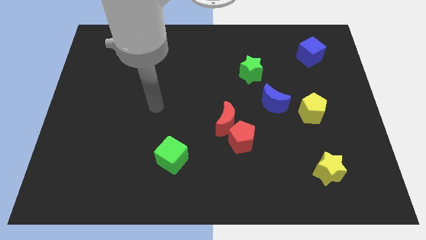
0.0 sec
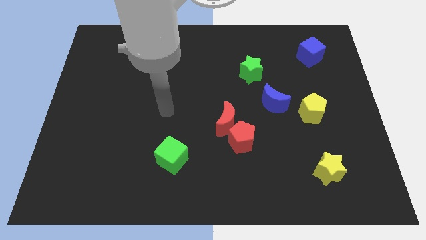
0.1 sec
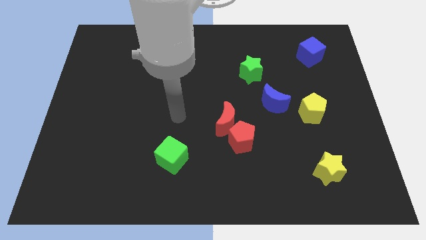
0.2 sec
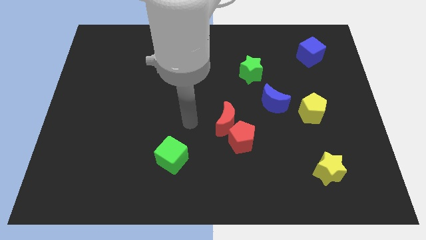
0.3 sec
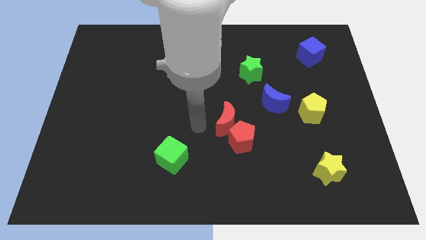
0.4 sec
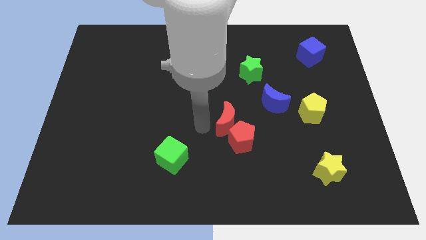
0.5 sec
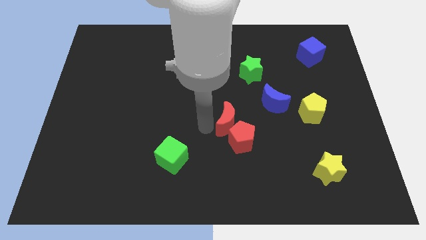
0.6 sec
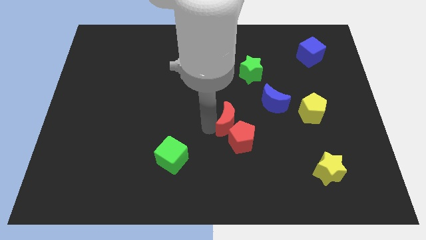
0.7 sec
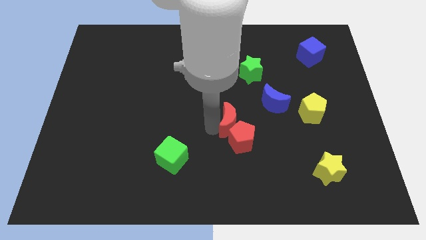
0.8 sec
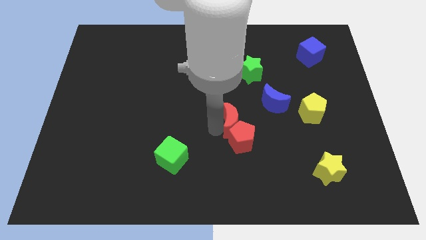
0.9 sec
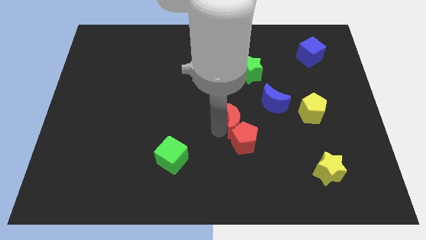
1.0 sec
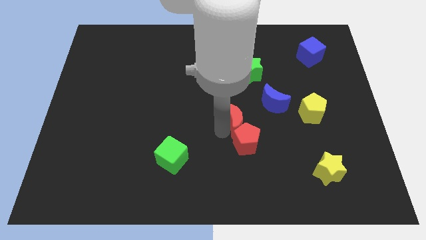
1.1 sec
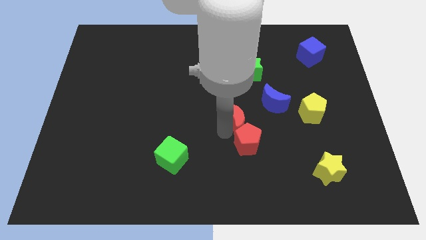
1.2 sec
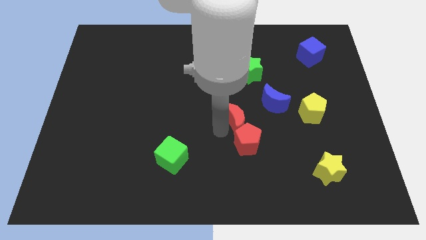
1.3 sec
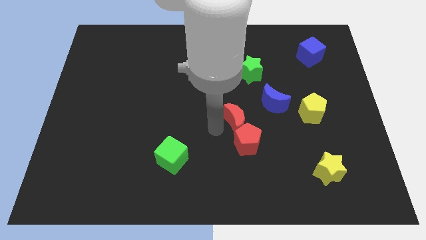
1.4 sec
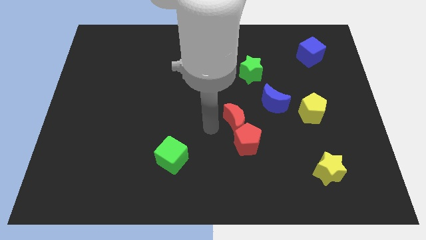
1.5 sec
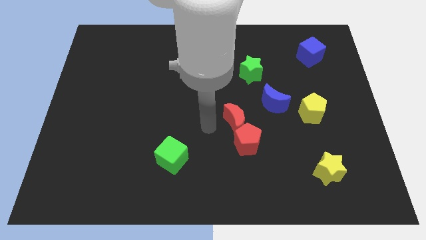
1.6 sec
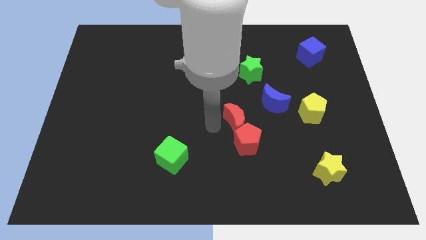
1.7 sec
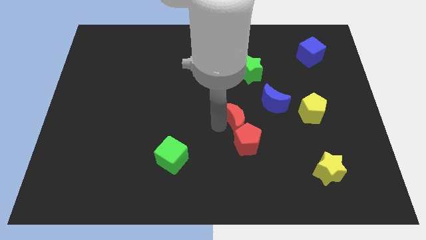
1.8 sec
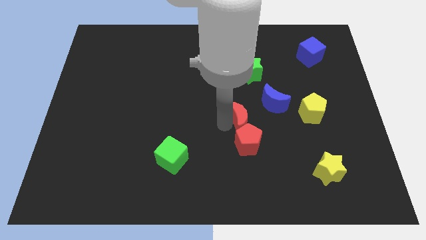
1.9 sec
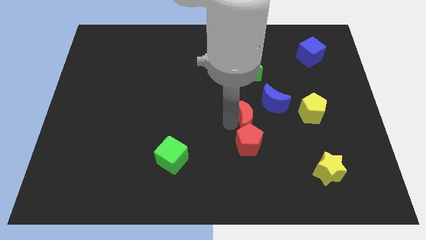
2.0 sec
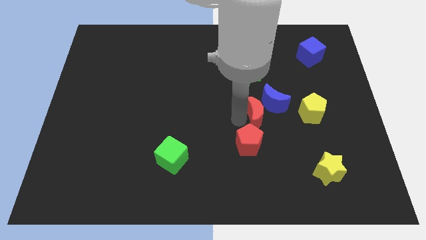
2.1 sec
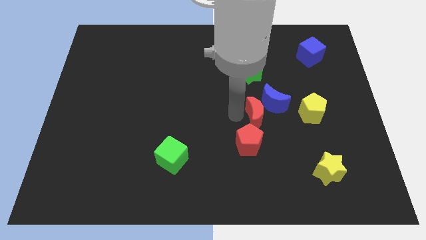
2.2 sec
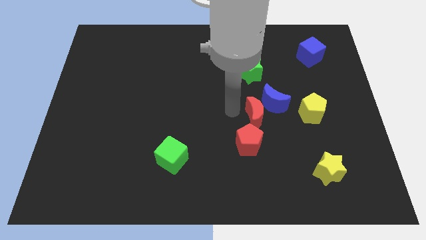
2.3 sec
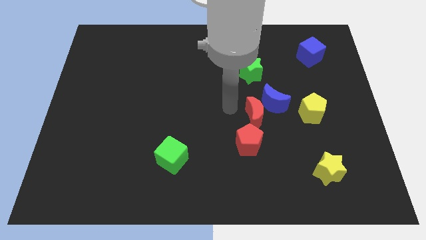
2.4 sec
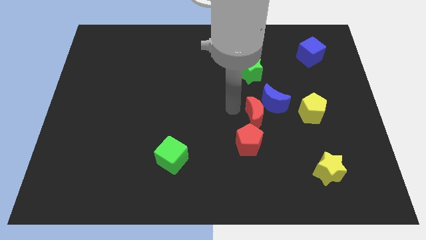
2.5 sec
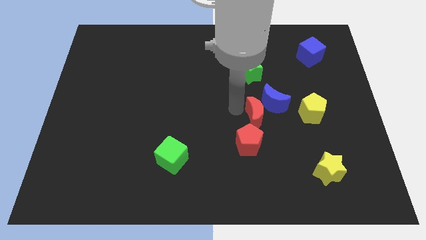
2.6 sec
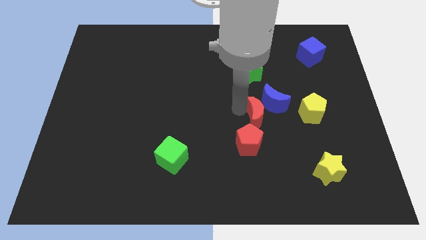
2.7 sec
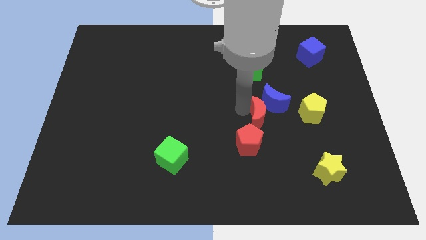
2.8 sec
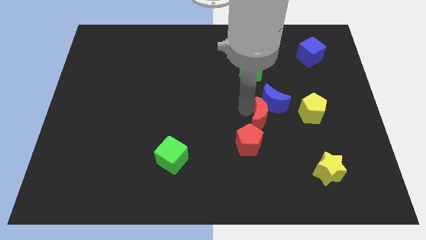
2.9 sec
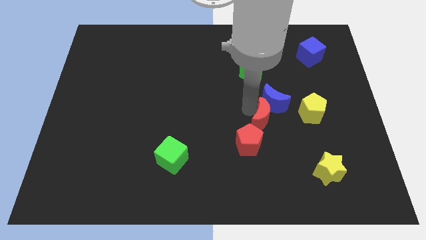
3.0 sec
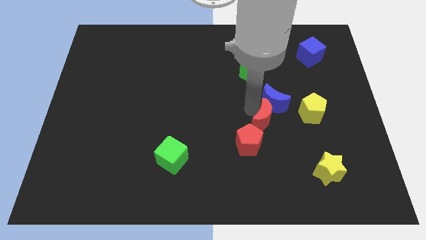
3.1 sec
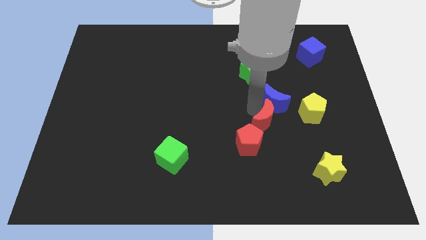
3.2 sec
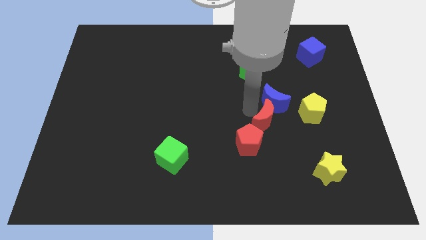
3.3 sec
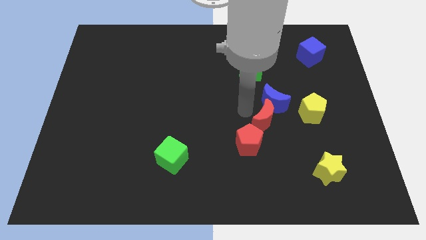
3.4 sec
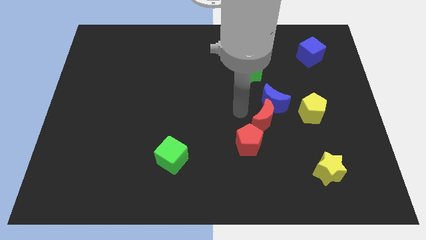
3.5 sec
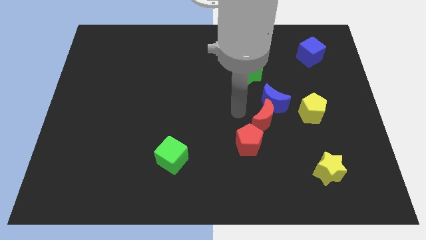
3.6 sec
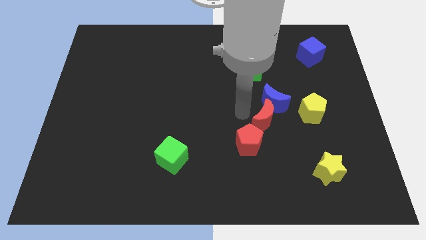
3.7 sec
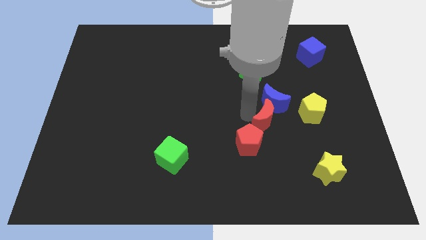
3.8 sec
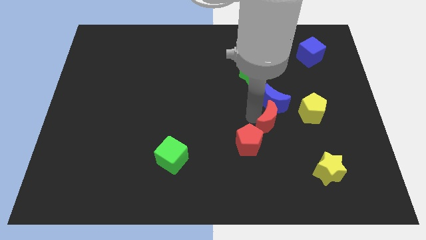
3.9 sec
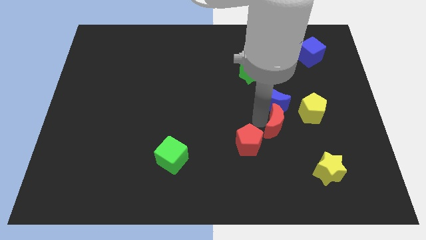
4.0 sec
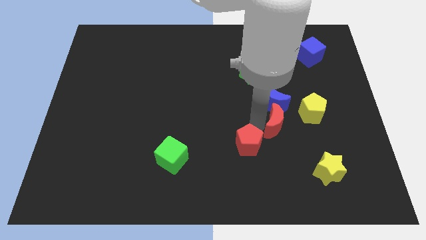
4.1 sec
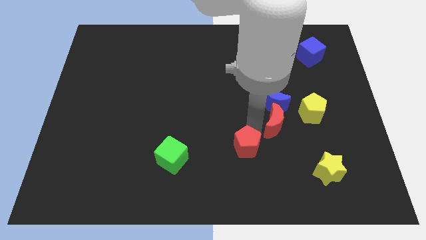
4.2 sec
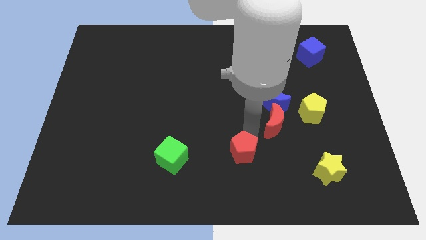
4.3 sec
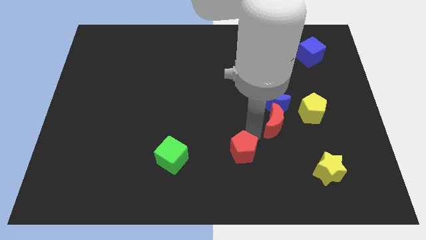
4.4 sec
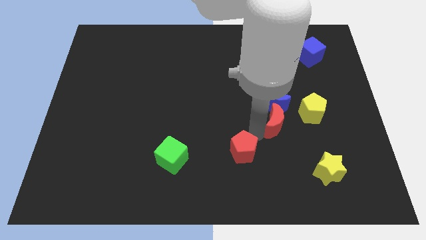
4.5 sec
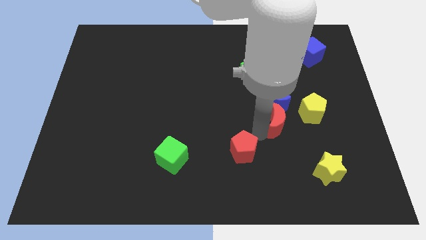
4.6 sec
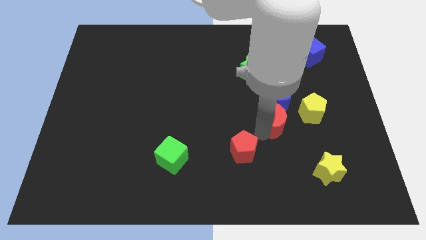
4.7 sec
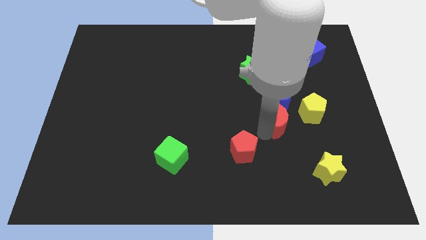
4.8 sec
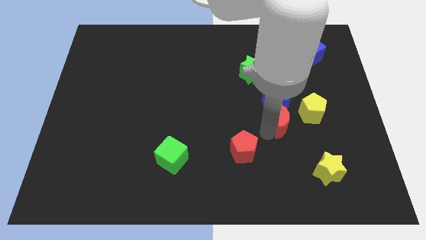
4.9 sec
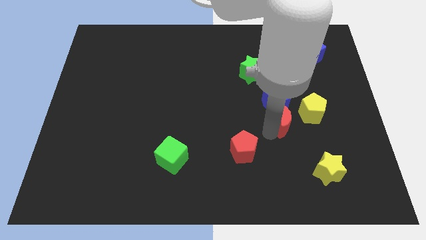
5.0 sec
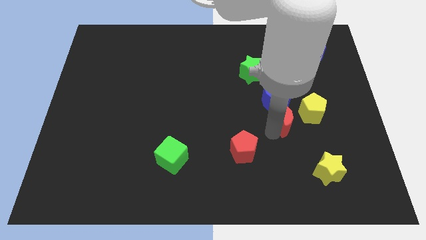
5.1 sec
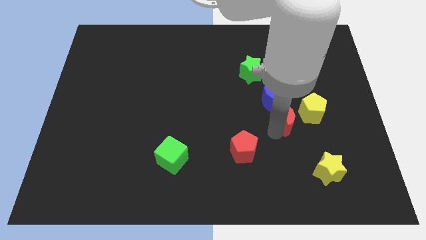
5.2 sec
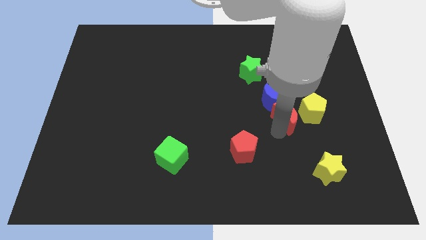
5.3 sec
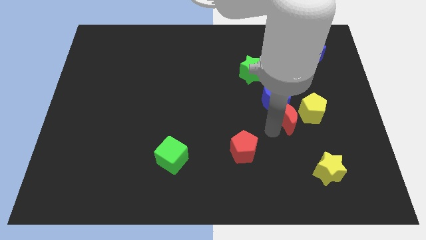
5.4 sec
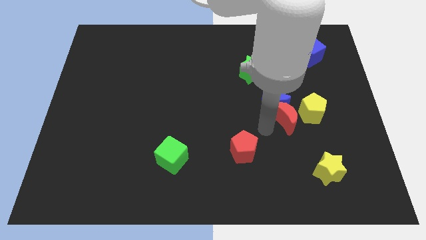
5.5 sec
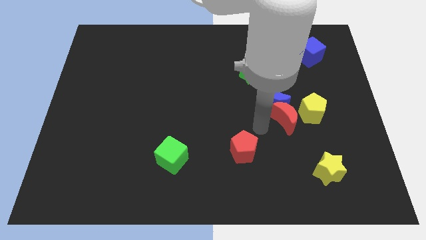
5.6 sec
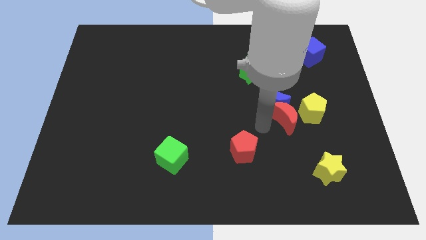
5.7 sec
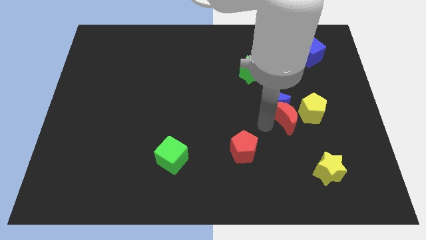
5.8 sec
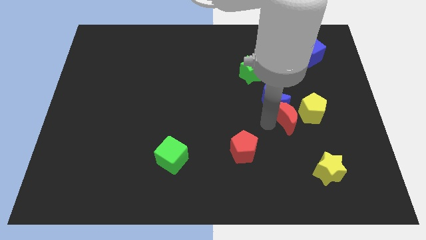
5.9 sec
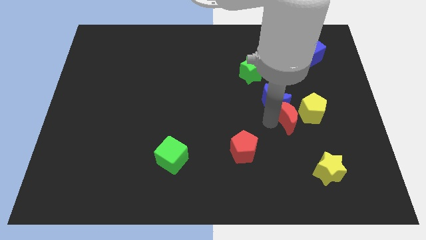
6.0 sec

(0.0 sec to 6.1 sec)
move the red moon towards the yellow pentagon

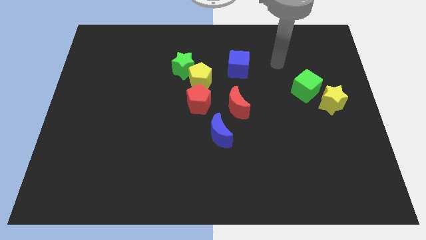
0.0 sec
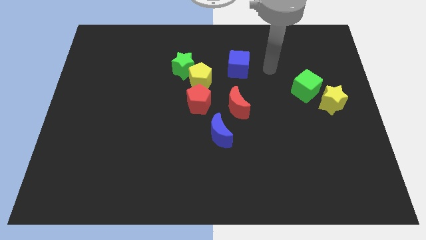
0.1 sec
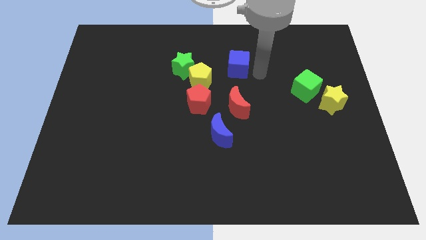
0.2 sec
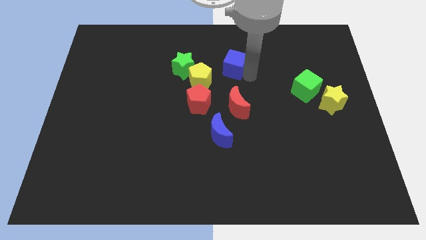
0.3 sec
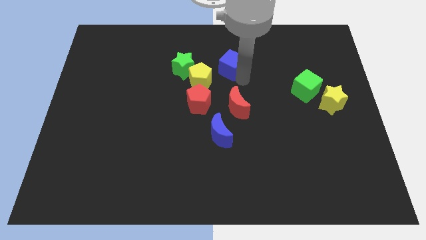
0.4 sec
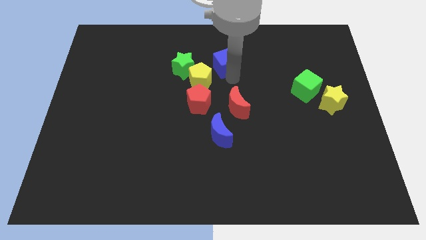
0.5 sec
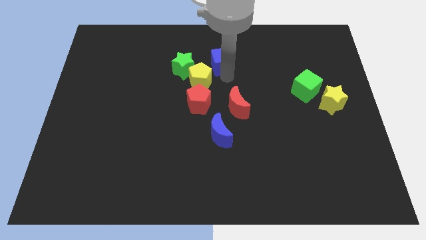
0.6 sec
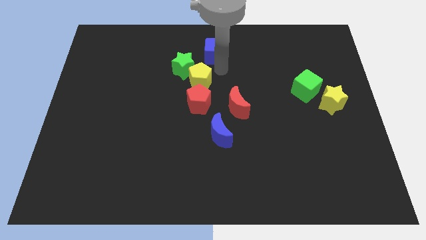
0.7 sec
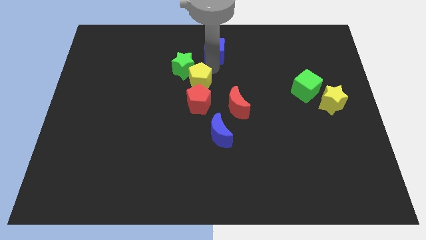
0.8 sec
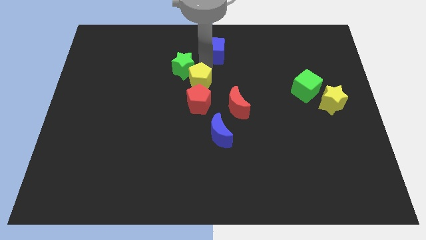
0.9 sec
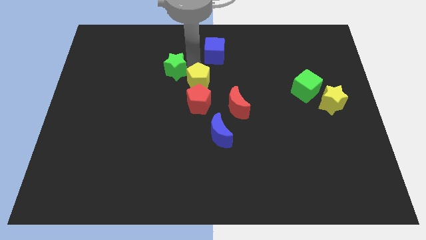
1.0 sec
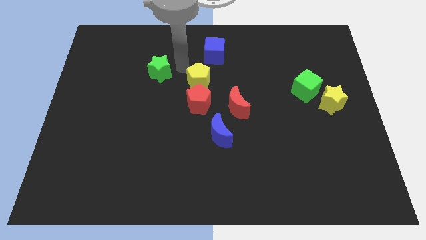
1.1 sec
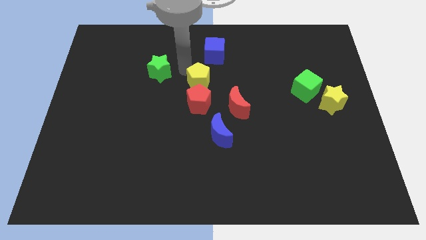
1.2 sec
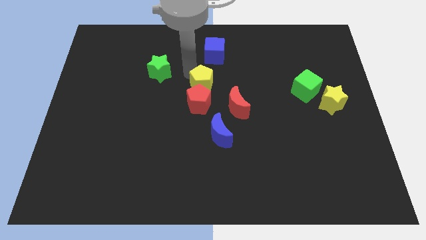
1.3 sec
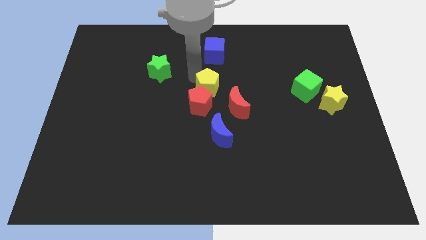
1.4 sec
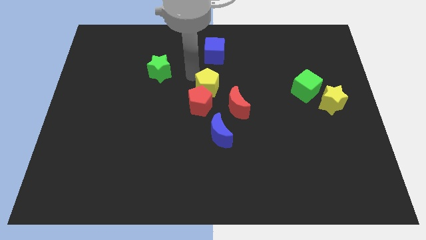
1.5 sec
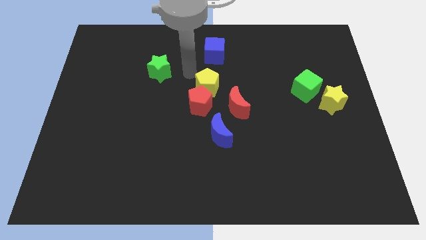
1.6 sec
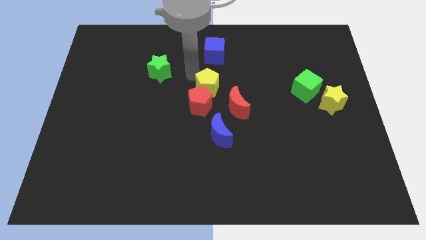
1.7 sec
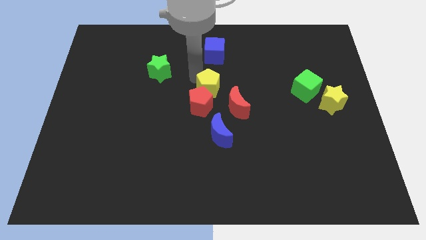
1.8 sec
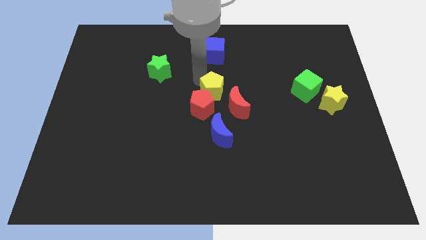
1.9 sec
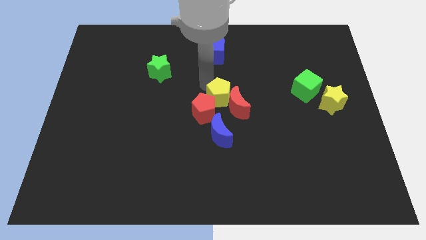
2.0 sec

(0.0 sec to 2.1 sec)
move the yellow pentagon next to the red moon
